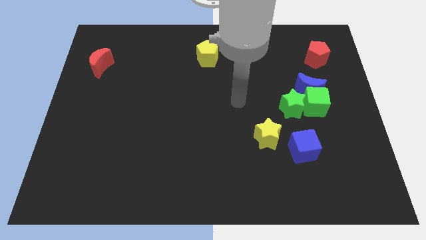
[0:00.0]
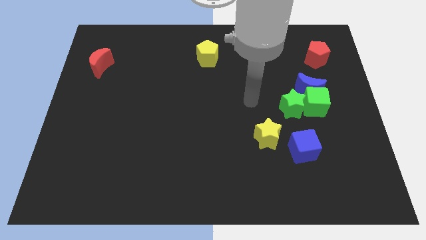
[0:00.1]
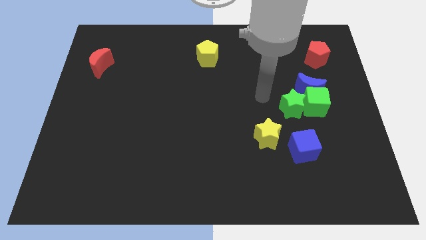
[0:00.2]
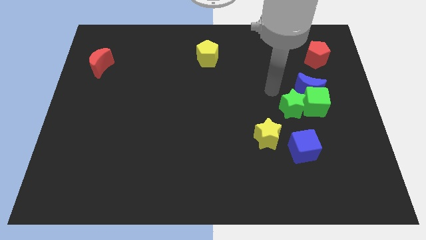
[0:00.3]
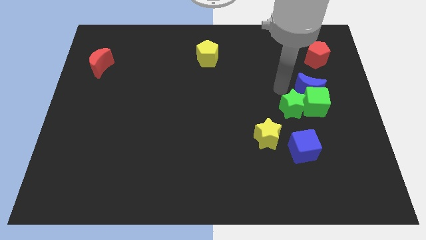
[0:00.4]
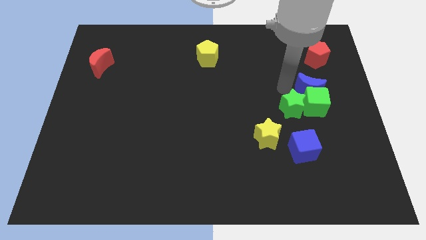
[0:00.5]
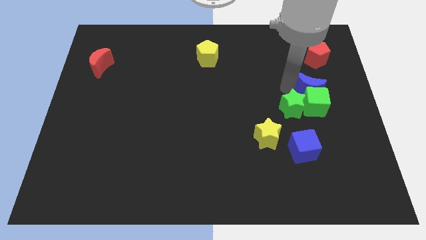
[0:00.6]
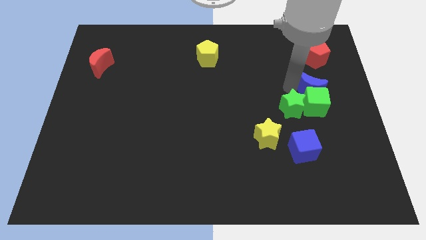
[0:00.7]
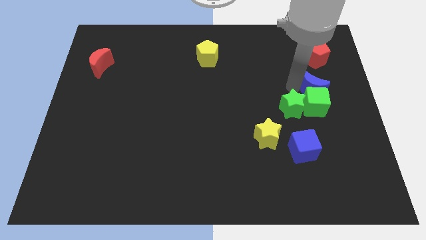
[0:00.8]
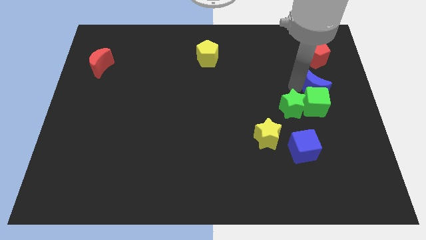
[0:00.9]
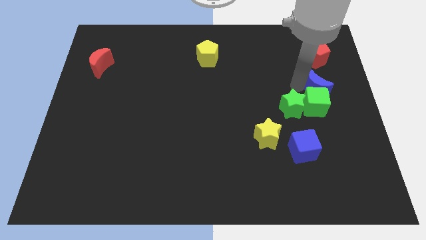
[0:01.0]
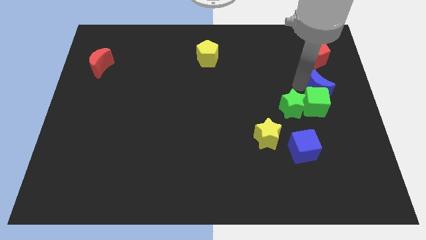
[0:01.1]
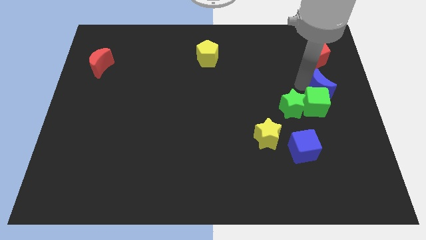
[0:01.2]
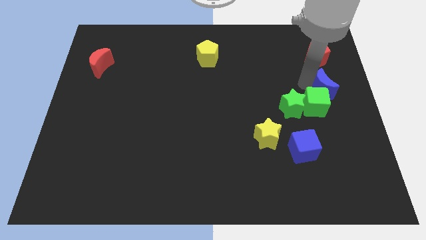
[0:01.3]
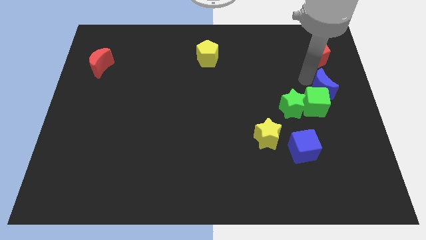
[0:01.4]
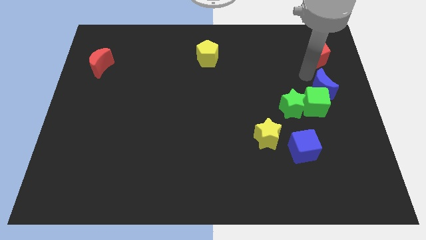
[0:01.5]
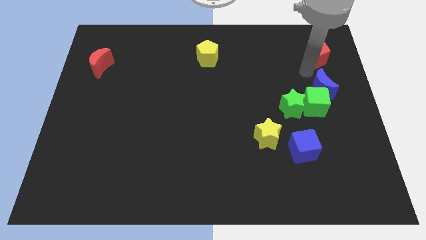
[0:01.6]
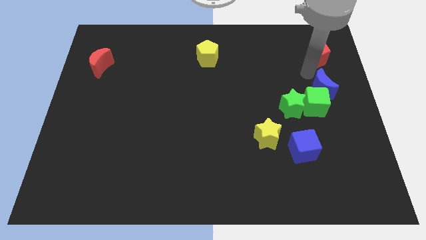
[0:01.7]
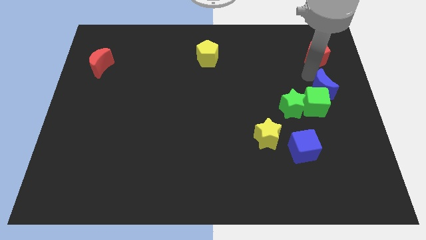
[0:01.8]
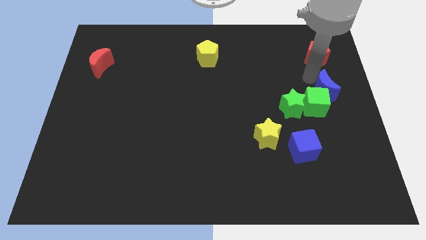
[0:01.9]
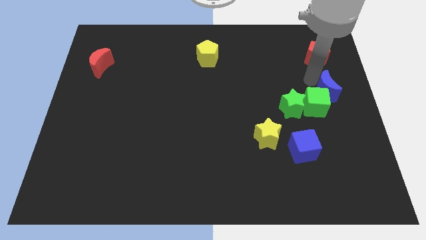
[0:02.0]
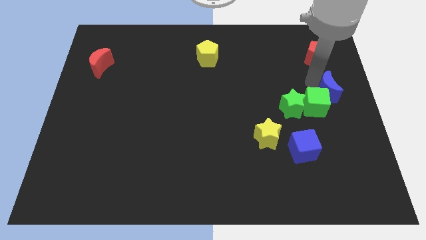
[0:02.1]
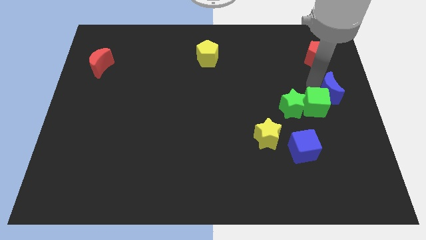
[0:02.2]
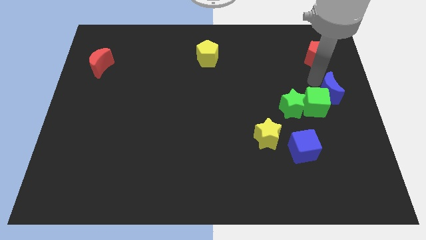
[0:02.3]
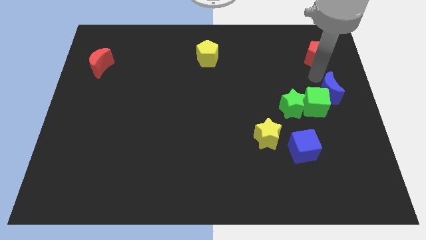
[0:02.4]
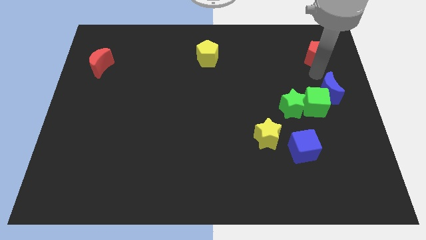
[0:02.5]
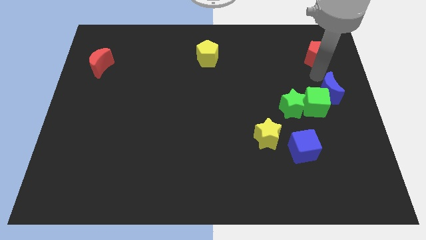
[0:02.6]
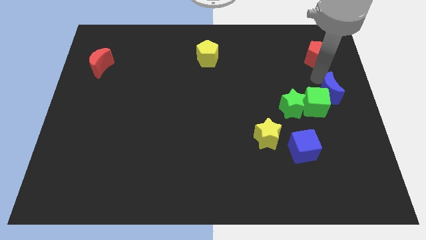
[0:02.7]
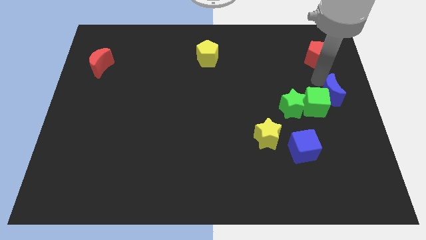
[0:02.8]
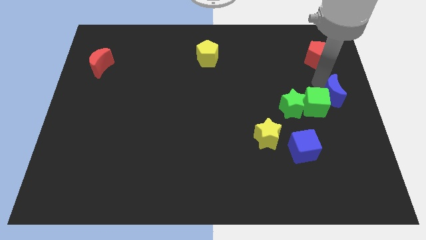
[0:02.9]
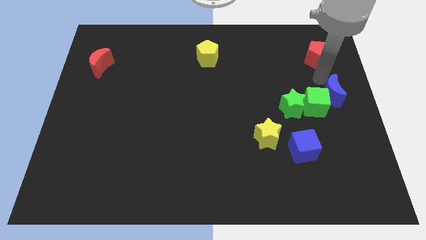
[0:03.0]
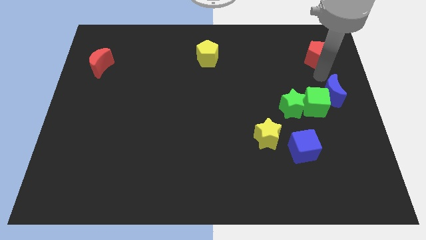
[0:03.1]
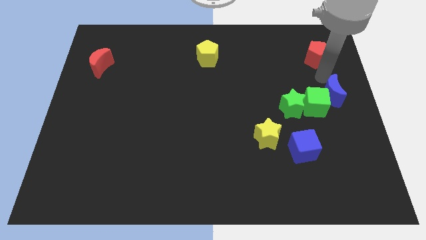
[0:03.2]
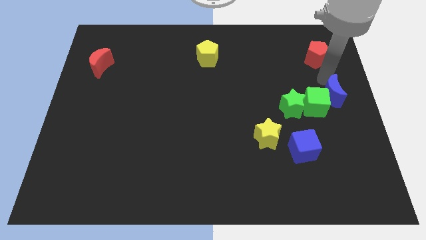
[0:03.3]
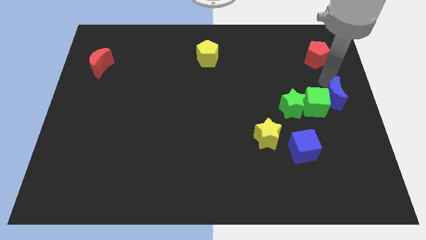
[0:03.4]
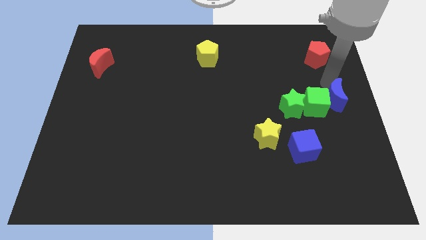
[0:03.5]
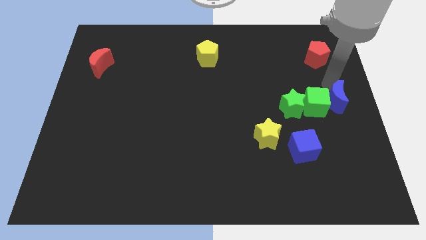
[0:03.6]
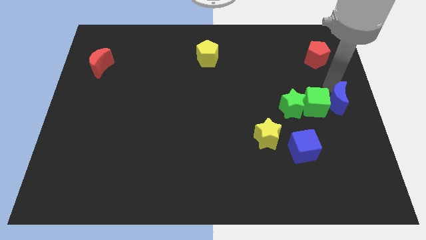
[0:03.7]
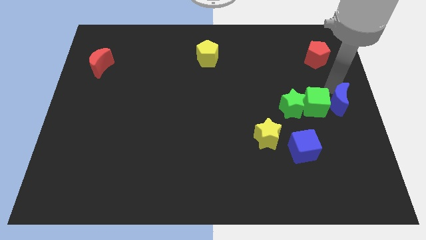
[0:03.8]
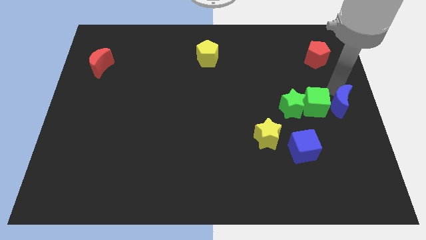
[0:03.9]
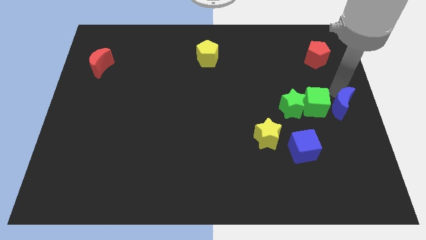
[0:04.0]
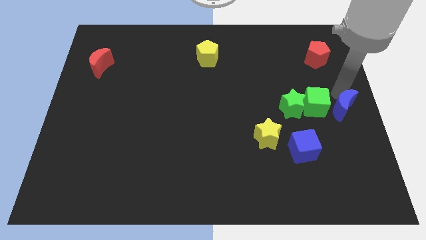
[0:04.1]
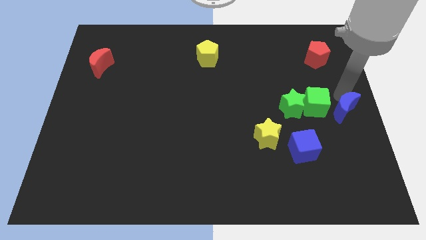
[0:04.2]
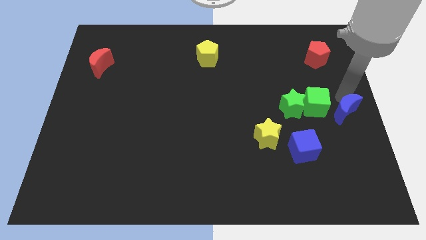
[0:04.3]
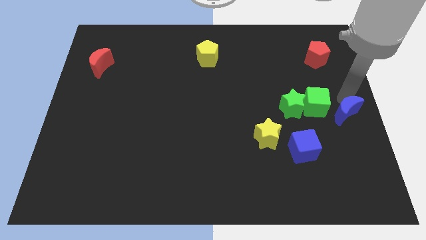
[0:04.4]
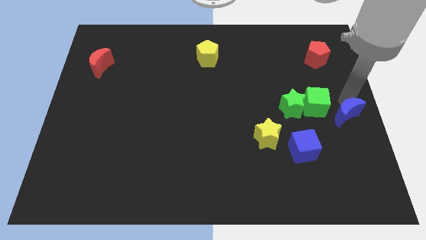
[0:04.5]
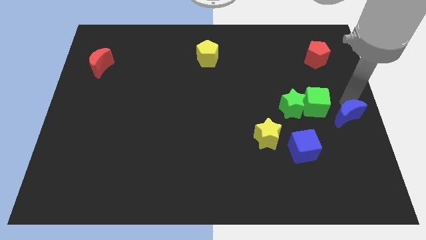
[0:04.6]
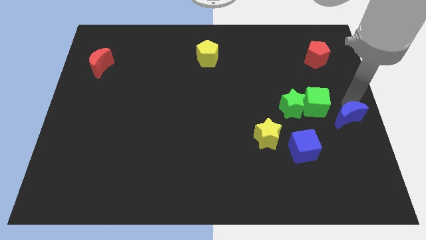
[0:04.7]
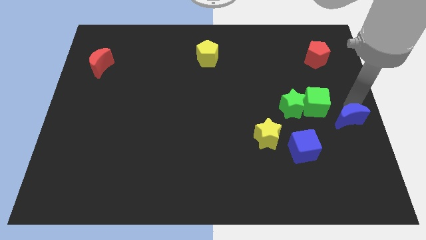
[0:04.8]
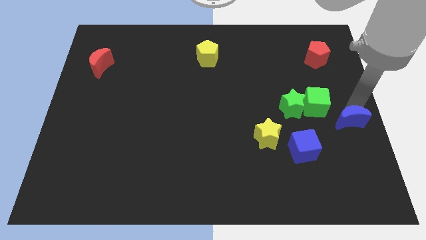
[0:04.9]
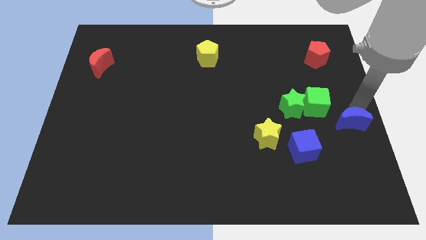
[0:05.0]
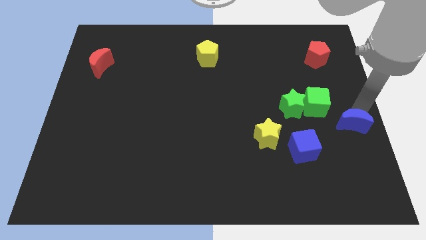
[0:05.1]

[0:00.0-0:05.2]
move the blue moon down a bit

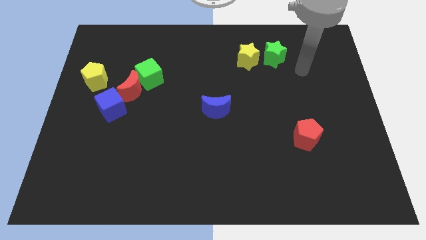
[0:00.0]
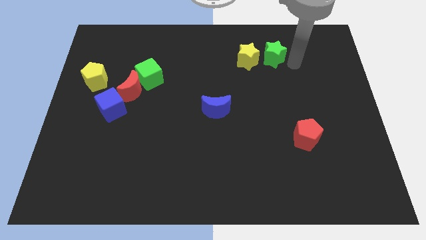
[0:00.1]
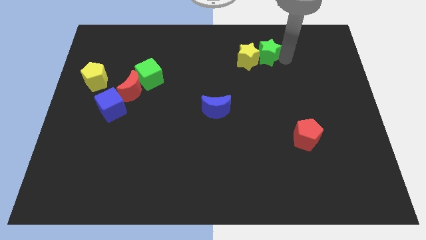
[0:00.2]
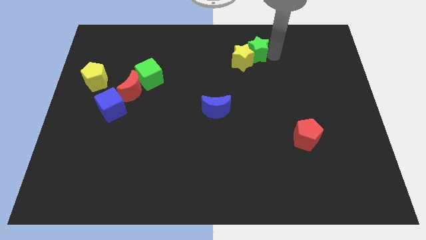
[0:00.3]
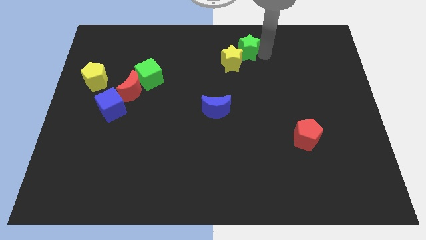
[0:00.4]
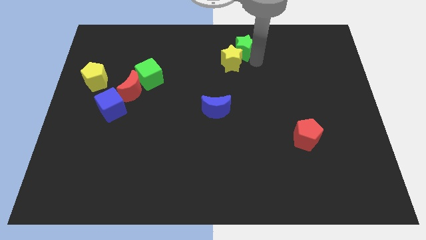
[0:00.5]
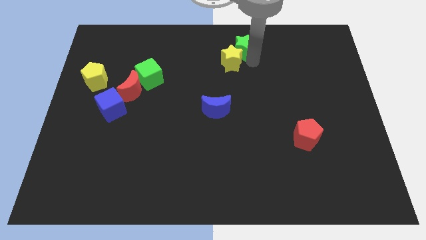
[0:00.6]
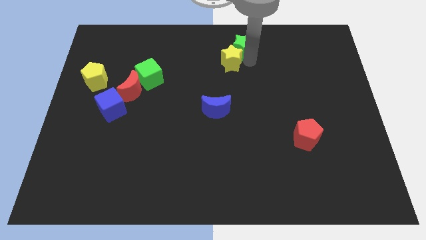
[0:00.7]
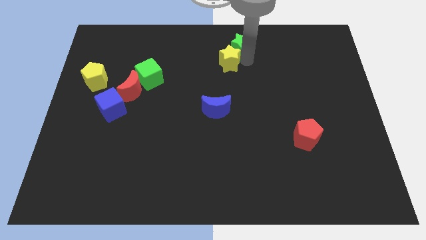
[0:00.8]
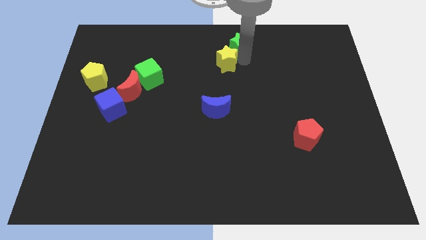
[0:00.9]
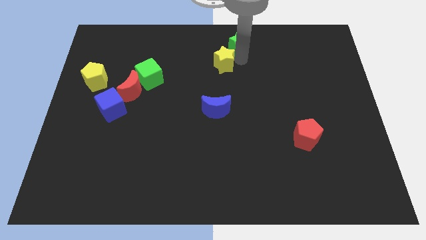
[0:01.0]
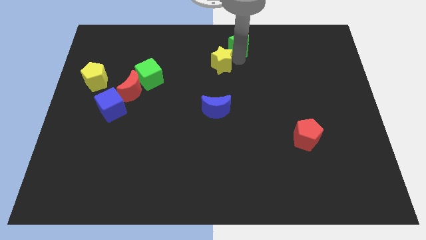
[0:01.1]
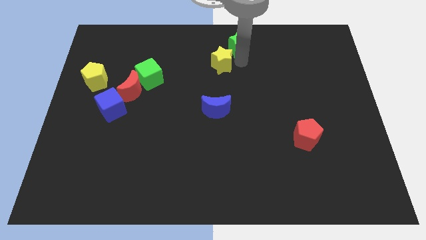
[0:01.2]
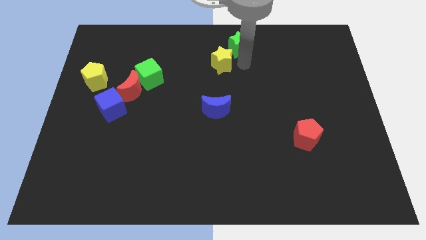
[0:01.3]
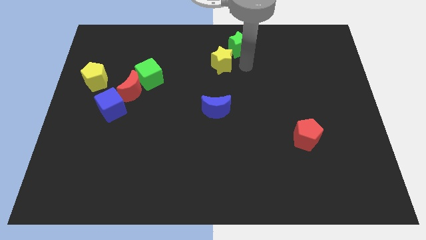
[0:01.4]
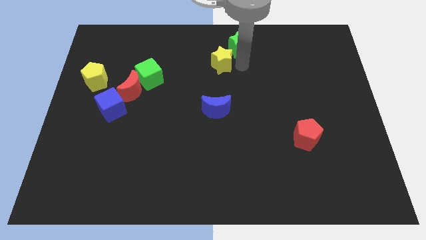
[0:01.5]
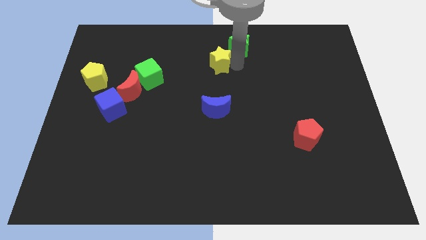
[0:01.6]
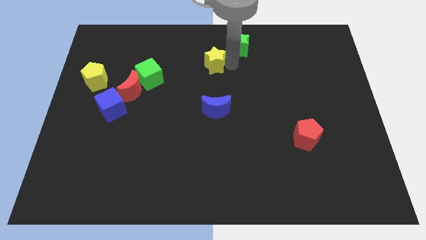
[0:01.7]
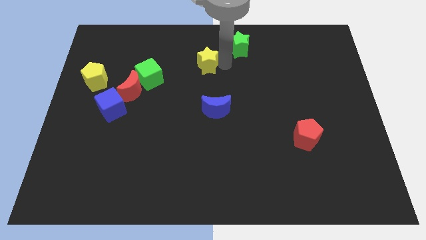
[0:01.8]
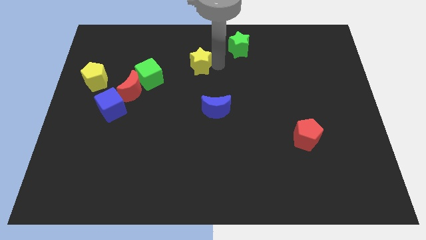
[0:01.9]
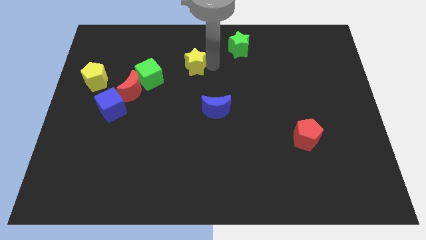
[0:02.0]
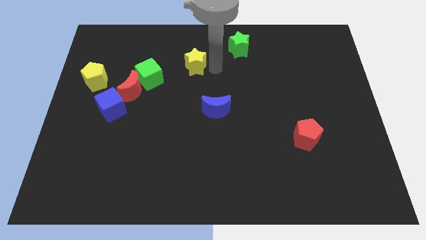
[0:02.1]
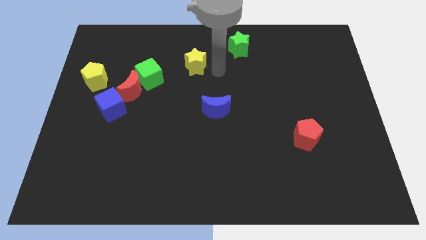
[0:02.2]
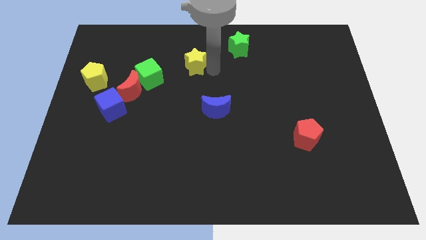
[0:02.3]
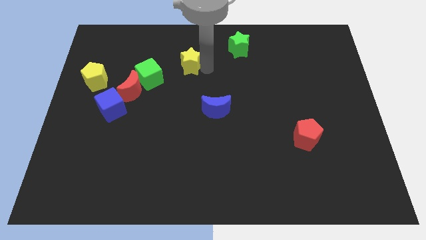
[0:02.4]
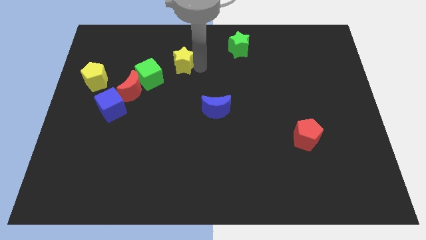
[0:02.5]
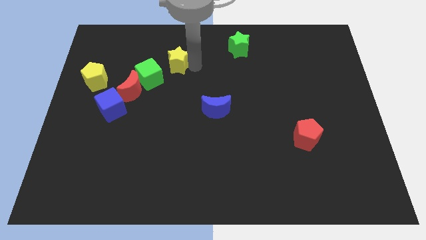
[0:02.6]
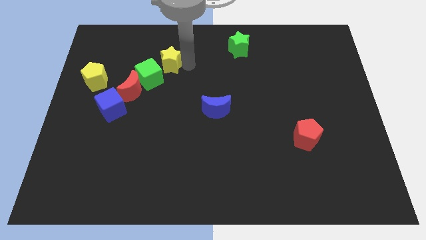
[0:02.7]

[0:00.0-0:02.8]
slide the yellow star left
